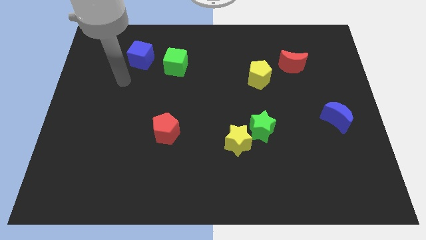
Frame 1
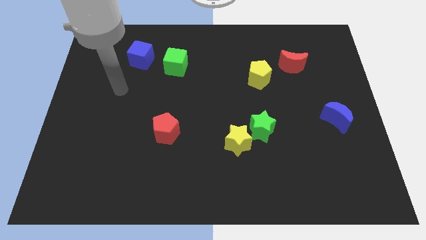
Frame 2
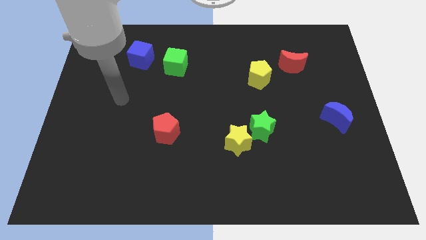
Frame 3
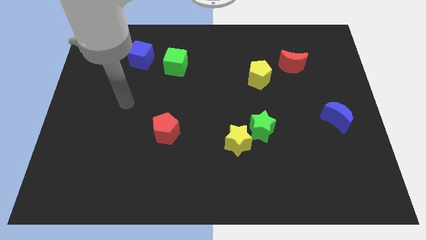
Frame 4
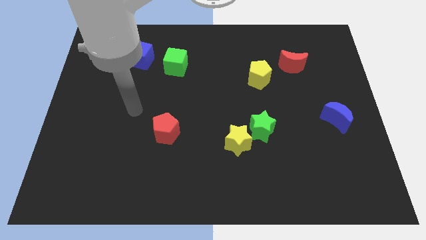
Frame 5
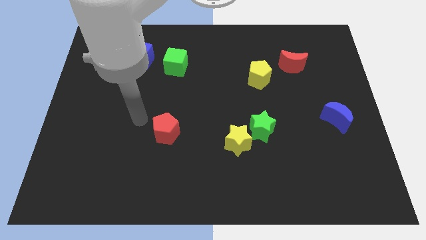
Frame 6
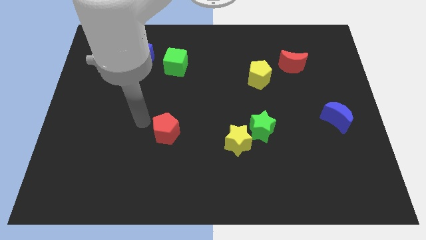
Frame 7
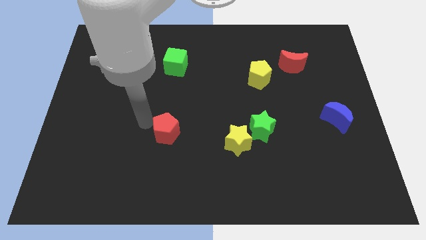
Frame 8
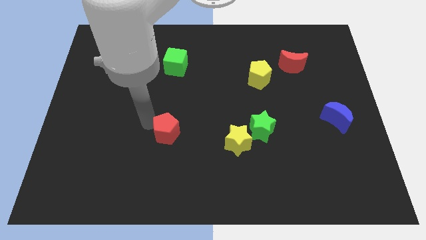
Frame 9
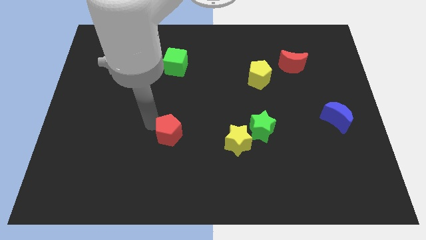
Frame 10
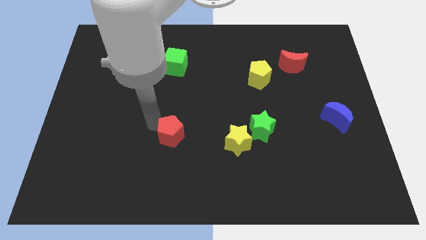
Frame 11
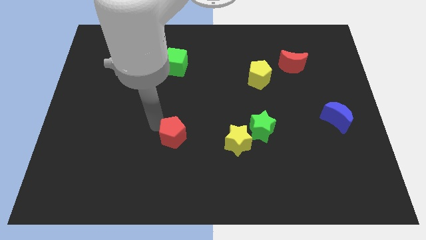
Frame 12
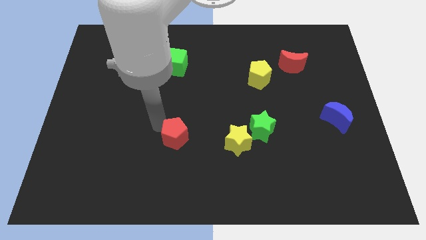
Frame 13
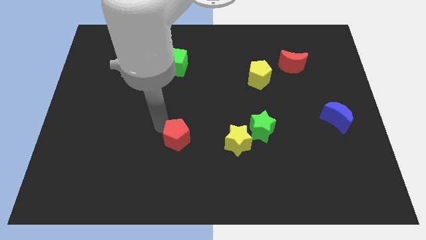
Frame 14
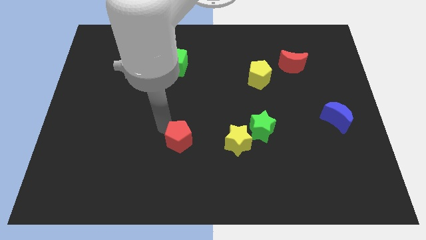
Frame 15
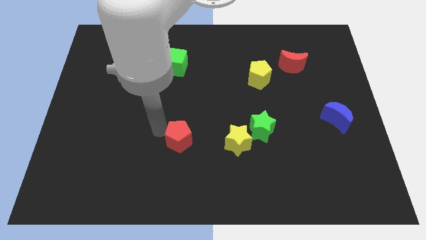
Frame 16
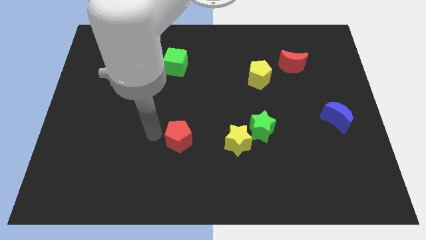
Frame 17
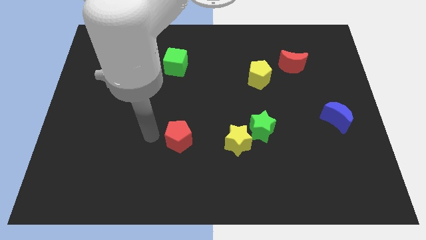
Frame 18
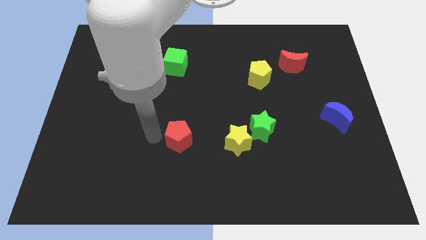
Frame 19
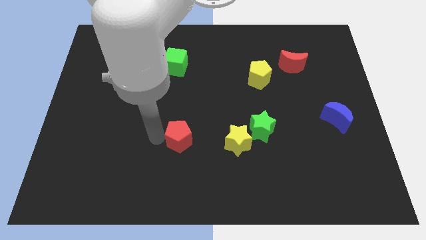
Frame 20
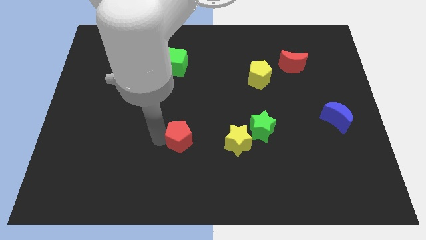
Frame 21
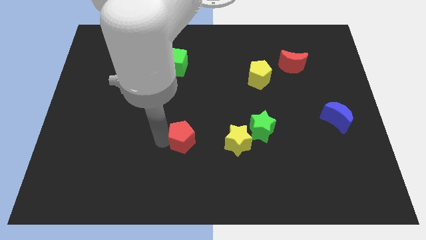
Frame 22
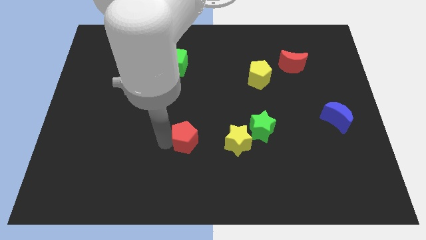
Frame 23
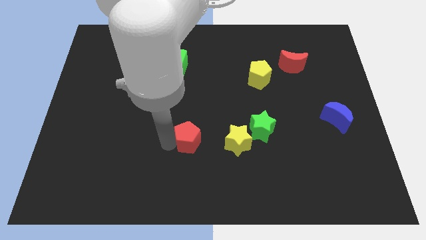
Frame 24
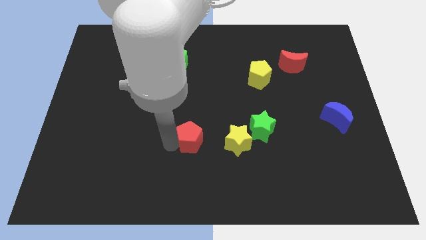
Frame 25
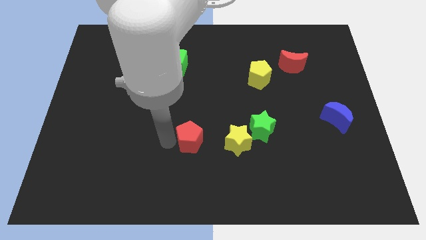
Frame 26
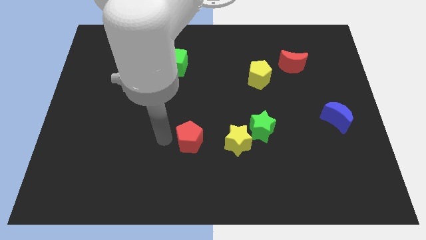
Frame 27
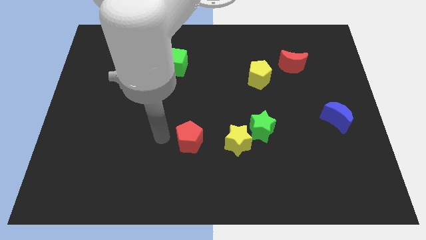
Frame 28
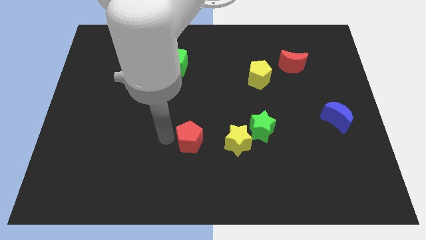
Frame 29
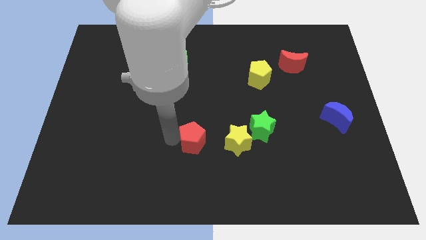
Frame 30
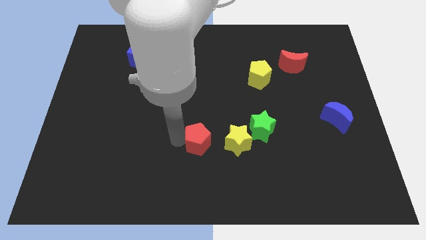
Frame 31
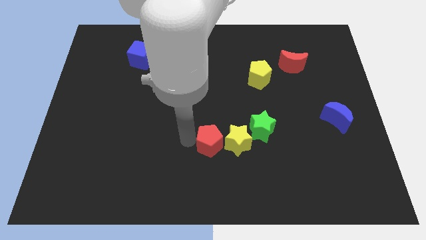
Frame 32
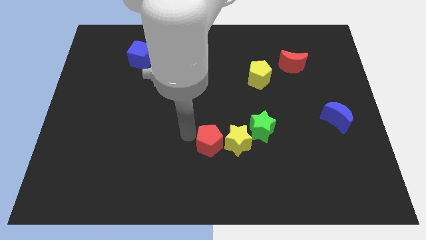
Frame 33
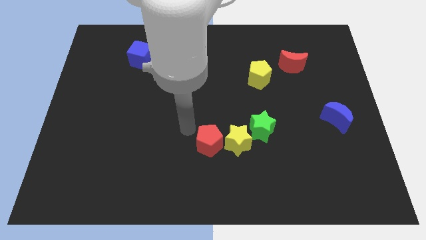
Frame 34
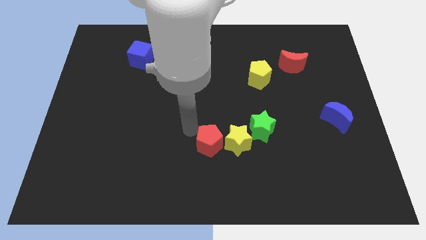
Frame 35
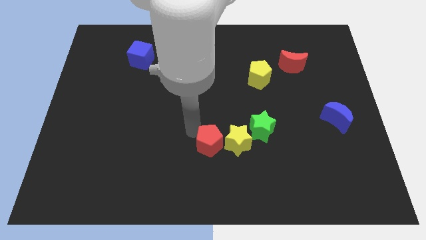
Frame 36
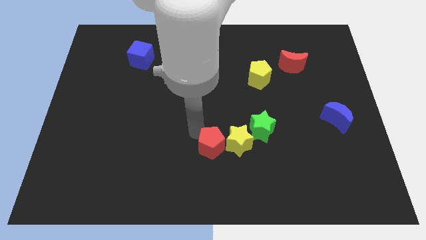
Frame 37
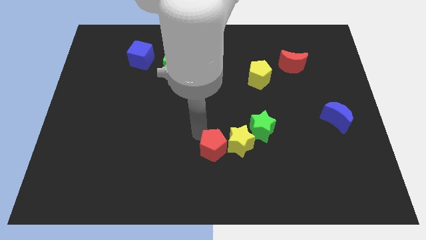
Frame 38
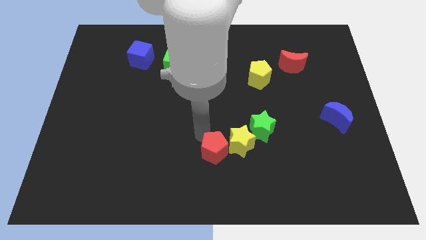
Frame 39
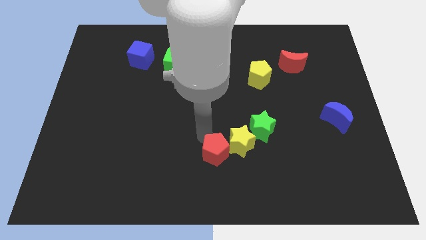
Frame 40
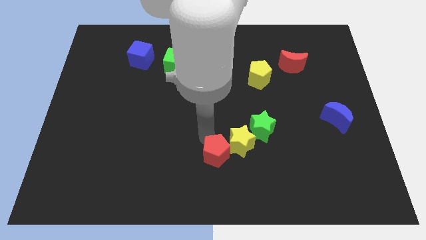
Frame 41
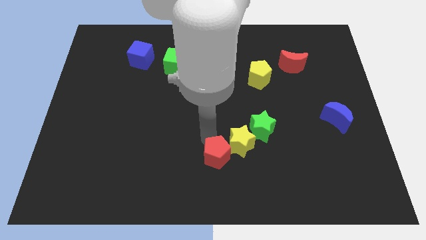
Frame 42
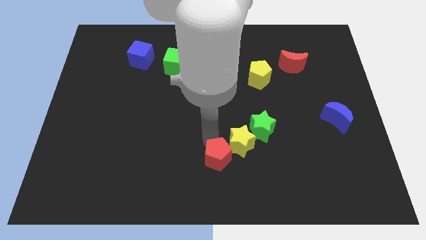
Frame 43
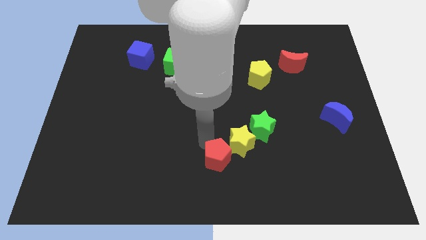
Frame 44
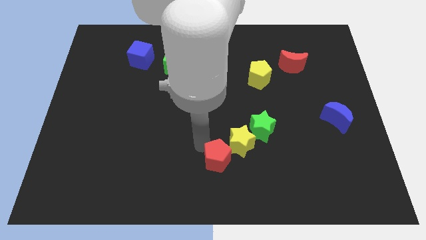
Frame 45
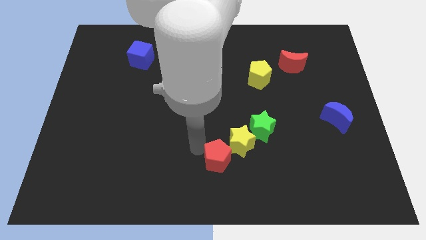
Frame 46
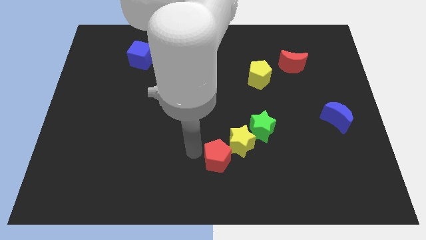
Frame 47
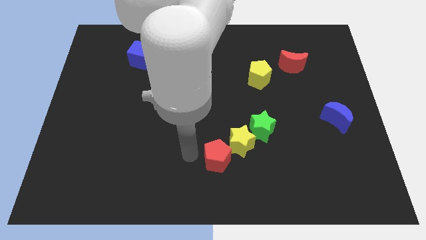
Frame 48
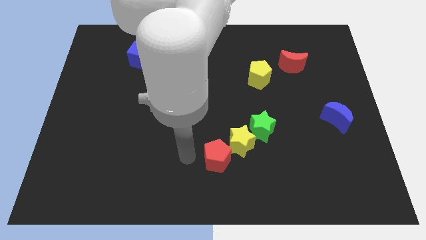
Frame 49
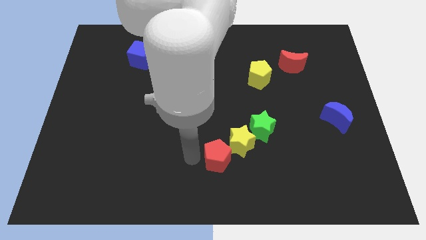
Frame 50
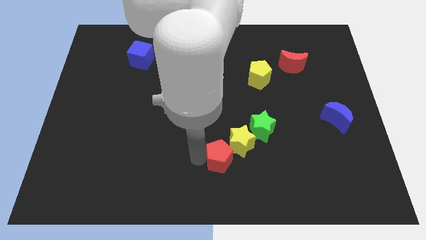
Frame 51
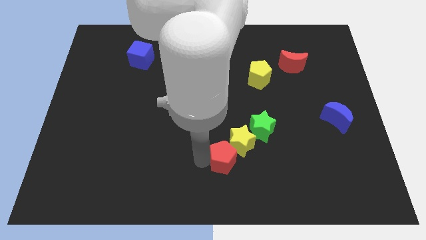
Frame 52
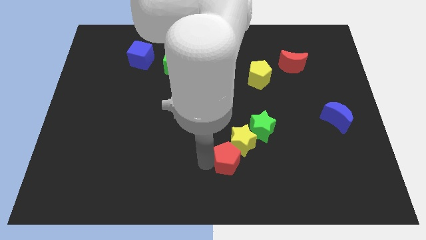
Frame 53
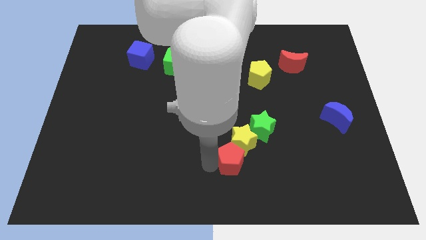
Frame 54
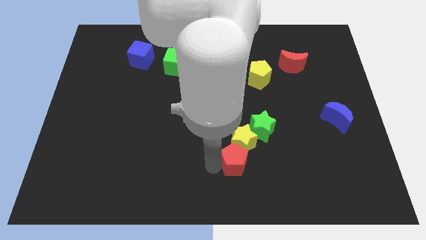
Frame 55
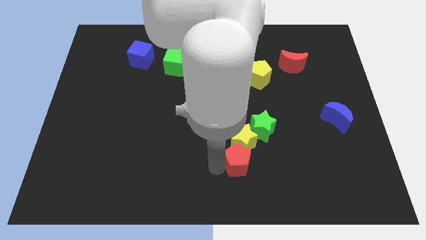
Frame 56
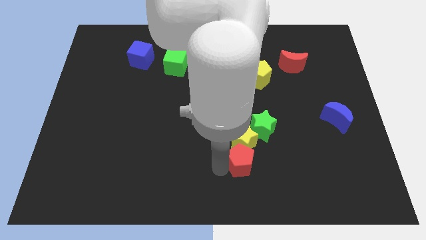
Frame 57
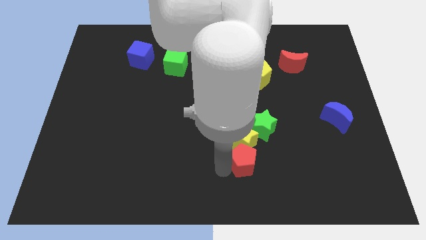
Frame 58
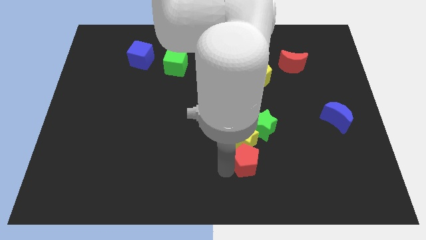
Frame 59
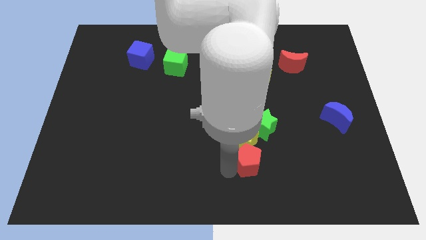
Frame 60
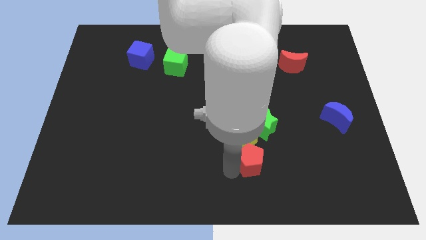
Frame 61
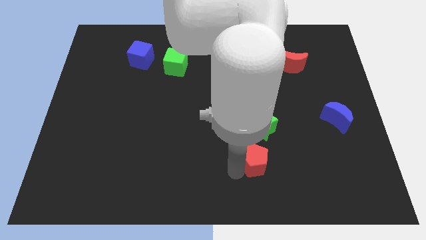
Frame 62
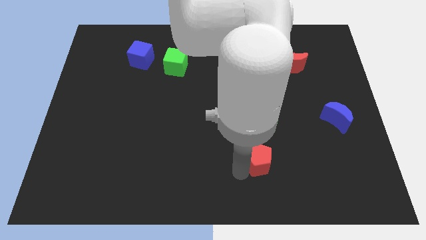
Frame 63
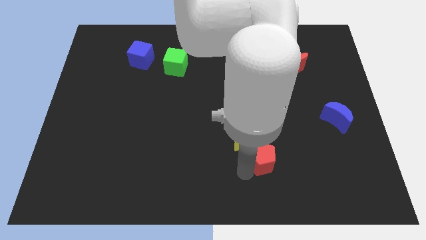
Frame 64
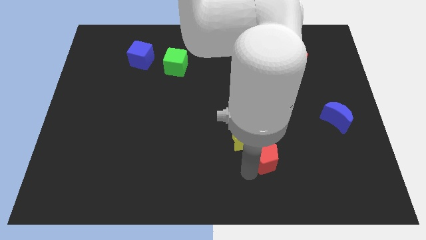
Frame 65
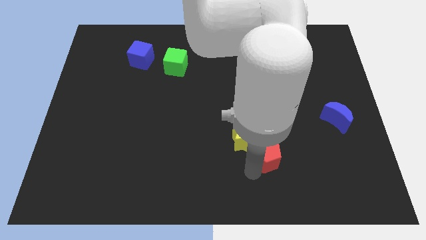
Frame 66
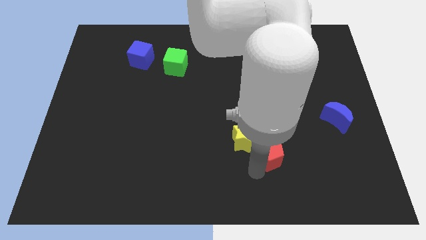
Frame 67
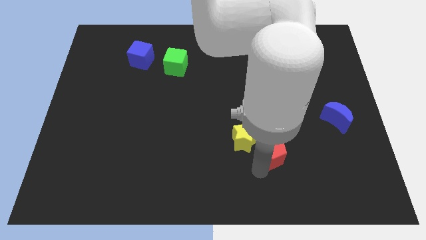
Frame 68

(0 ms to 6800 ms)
push the red pentagon to the bottom right side of the green star

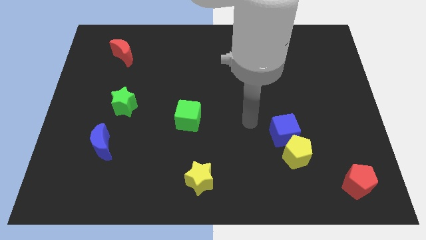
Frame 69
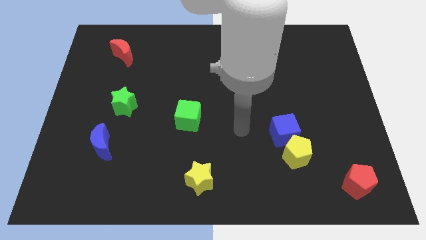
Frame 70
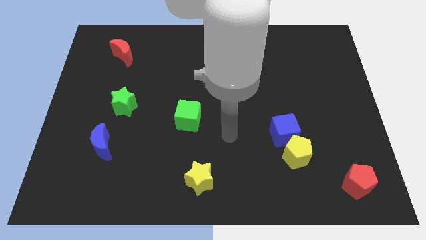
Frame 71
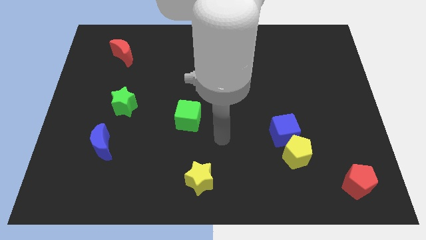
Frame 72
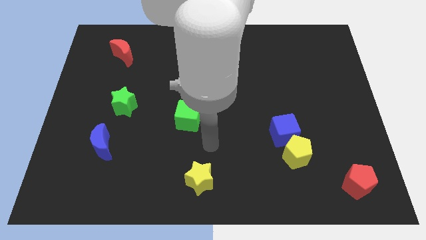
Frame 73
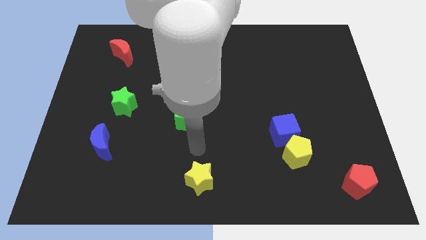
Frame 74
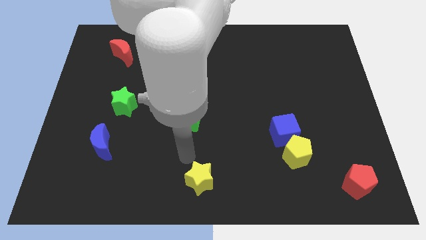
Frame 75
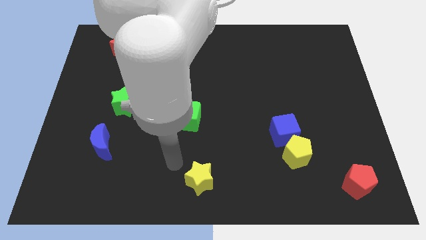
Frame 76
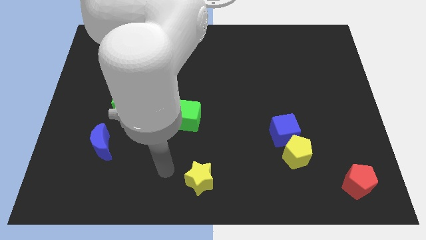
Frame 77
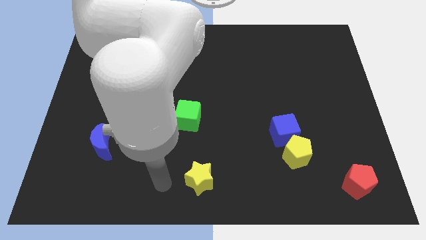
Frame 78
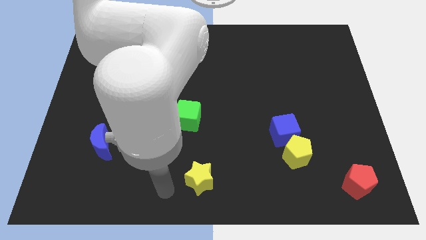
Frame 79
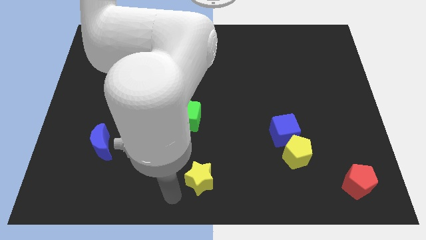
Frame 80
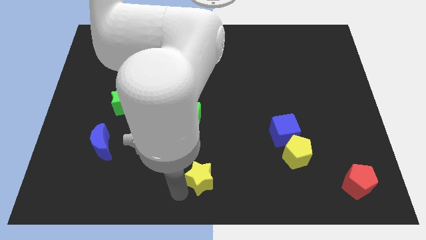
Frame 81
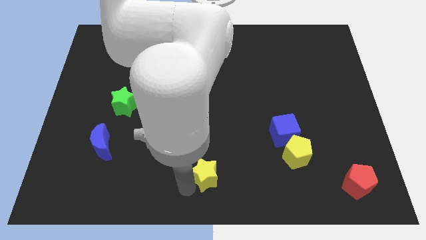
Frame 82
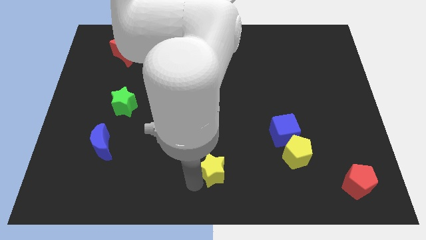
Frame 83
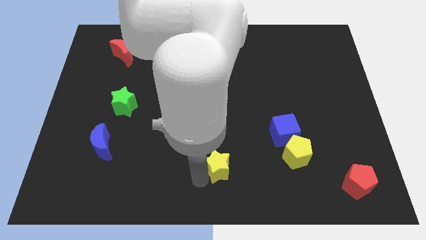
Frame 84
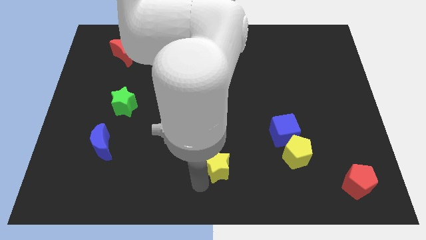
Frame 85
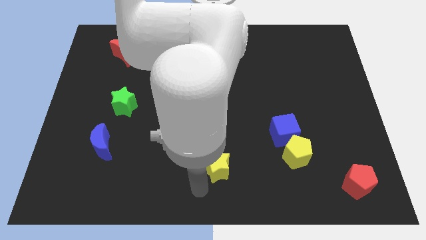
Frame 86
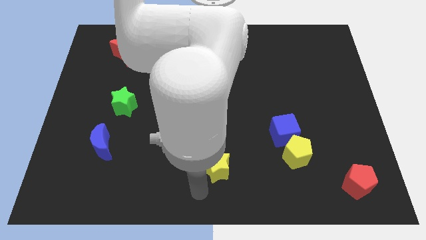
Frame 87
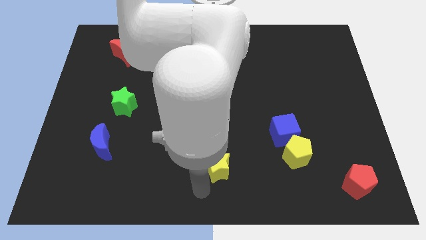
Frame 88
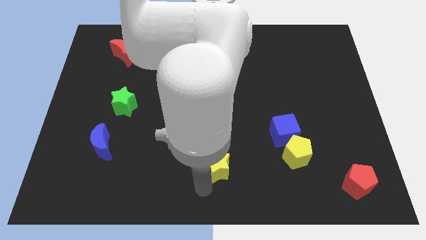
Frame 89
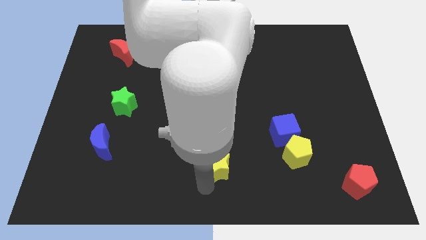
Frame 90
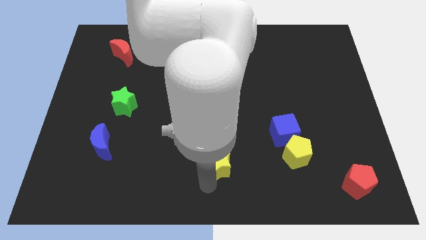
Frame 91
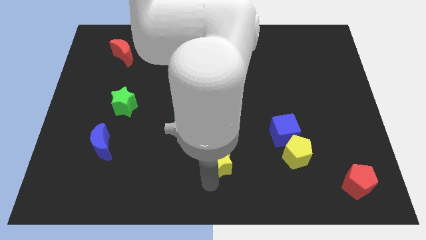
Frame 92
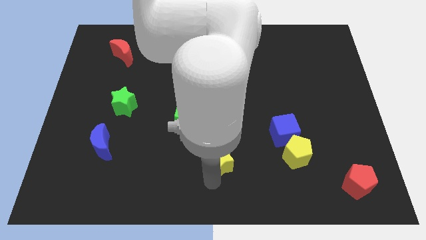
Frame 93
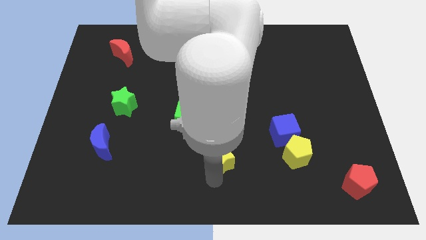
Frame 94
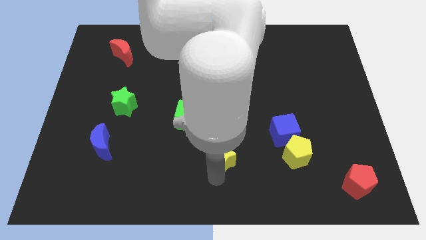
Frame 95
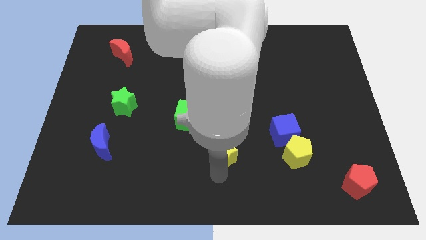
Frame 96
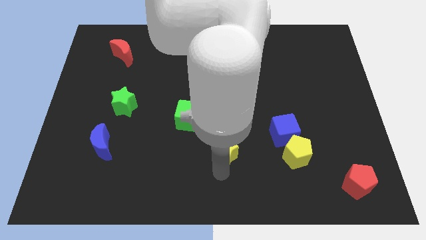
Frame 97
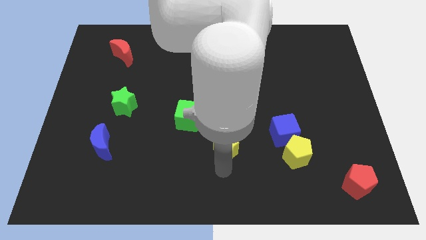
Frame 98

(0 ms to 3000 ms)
move the yellow star to the left of the blue cube
